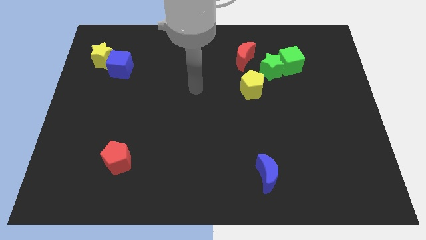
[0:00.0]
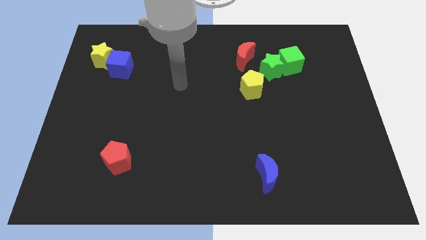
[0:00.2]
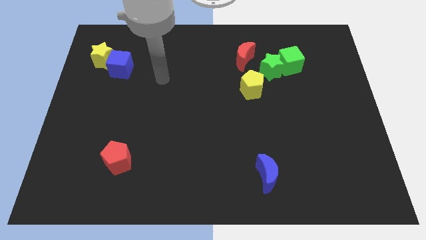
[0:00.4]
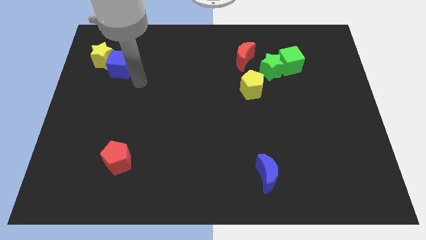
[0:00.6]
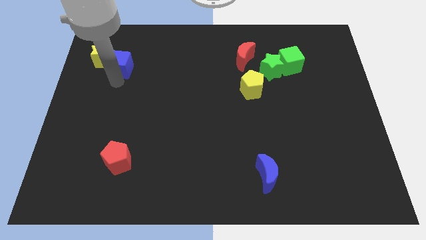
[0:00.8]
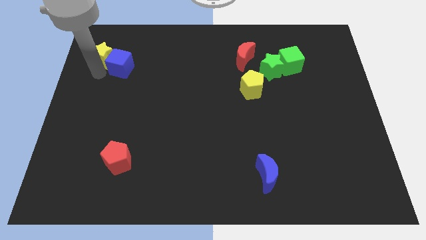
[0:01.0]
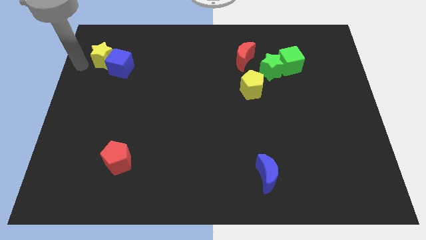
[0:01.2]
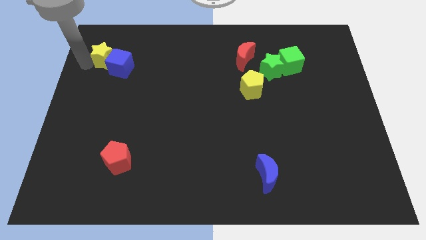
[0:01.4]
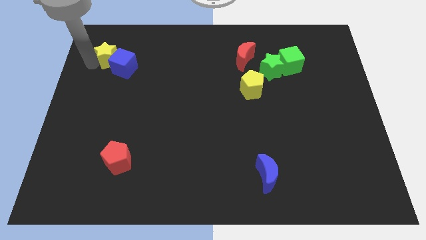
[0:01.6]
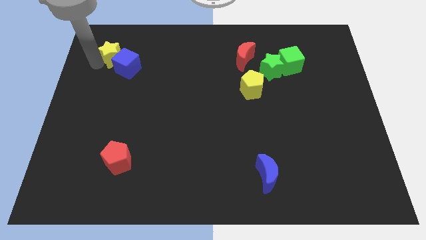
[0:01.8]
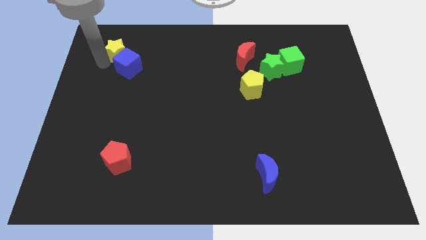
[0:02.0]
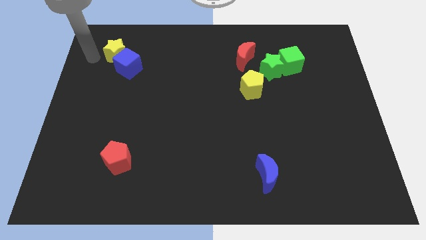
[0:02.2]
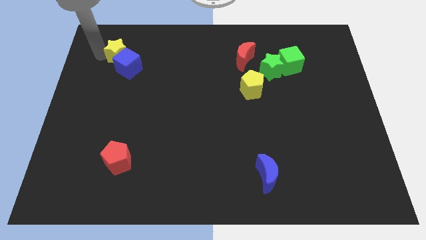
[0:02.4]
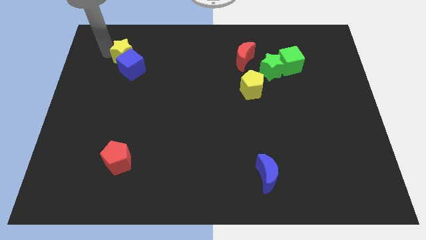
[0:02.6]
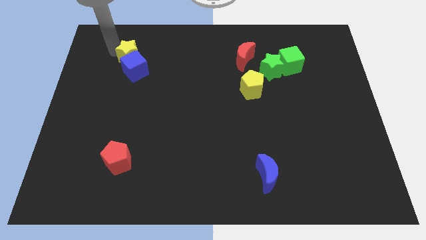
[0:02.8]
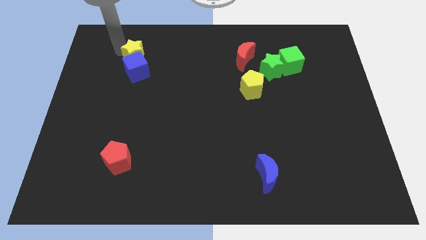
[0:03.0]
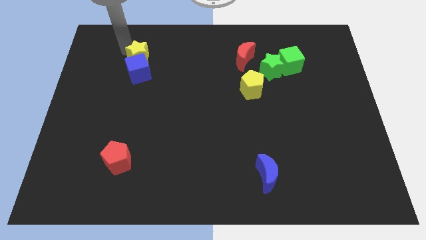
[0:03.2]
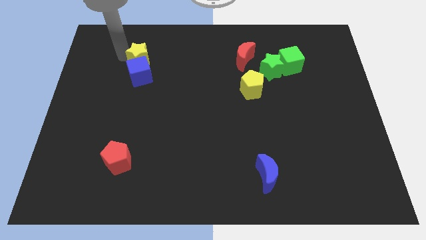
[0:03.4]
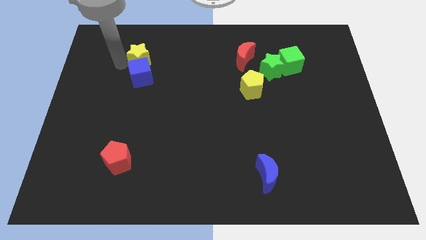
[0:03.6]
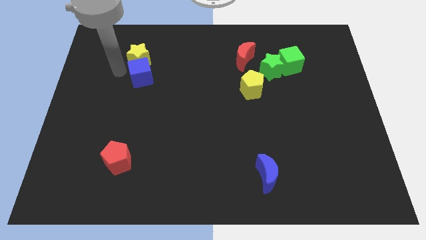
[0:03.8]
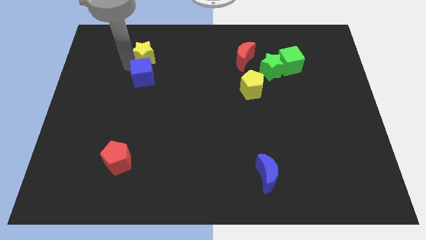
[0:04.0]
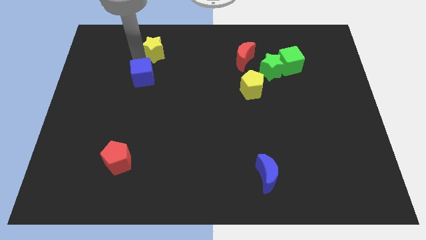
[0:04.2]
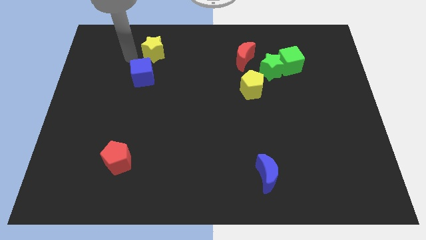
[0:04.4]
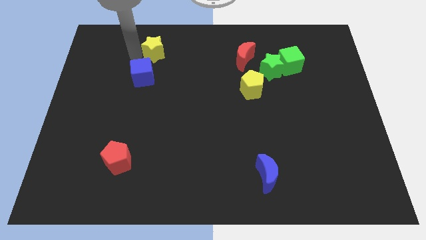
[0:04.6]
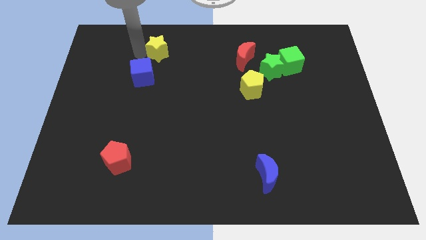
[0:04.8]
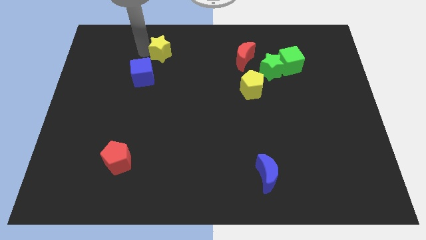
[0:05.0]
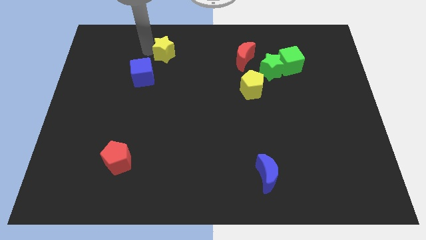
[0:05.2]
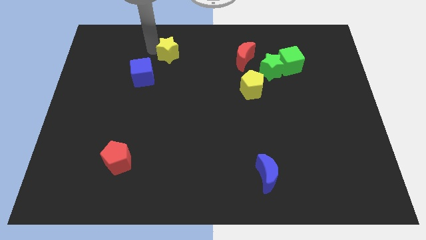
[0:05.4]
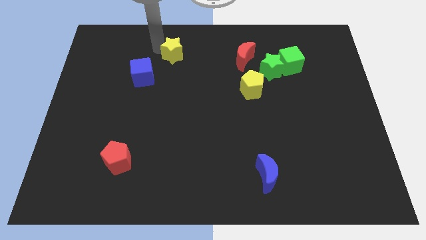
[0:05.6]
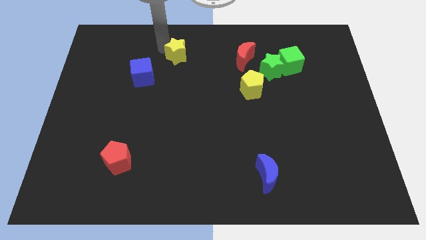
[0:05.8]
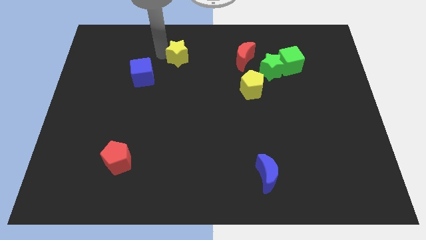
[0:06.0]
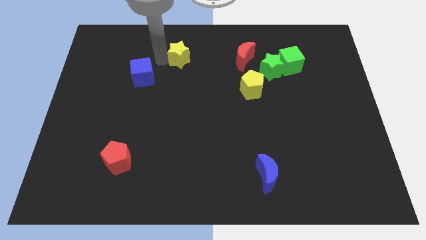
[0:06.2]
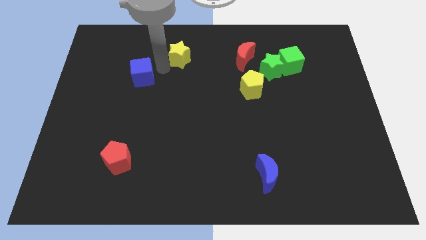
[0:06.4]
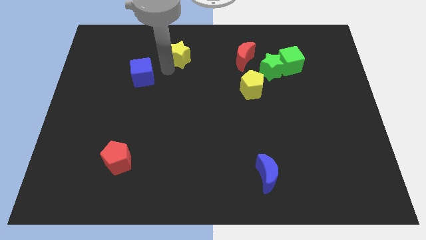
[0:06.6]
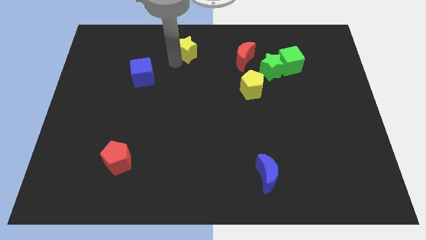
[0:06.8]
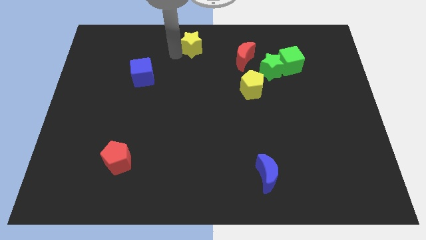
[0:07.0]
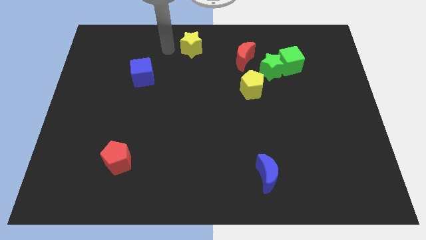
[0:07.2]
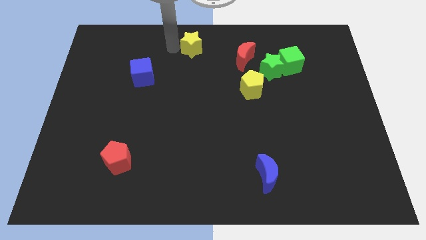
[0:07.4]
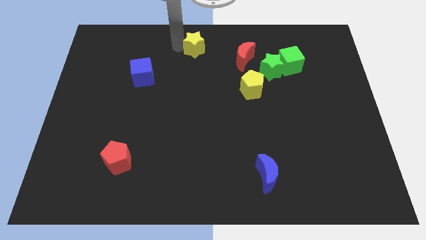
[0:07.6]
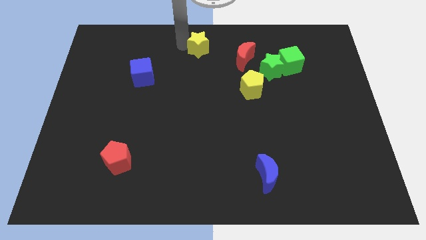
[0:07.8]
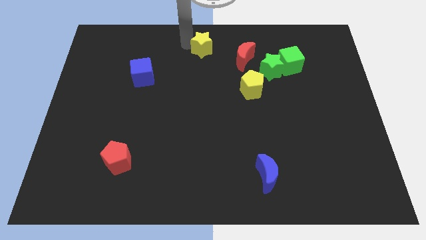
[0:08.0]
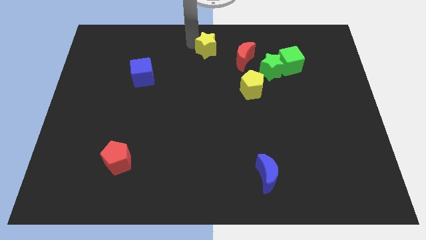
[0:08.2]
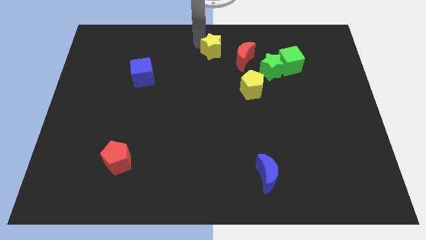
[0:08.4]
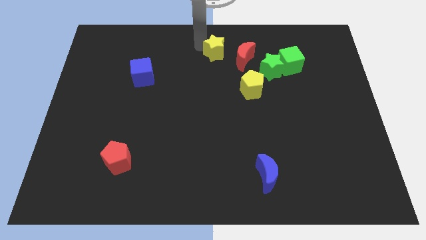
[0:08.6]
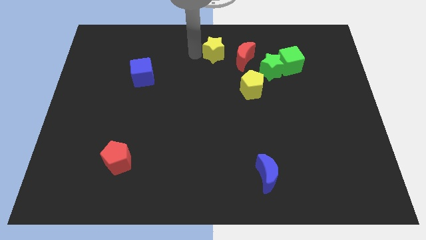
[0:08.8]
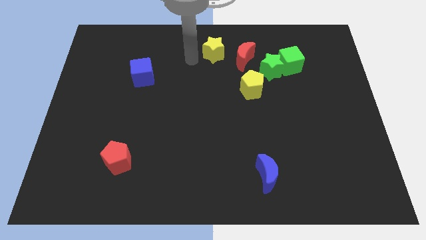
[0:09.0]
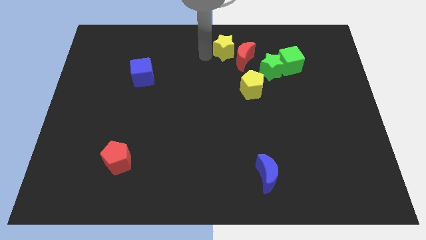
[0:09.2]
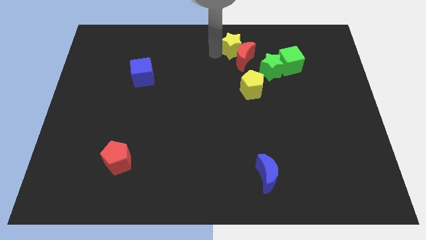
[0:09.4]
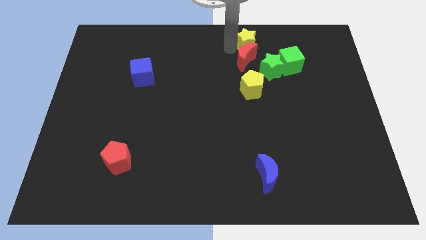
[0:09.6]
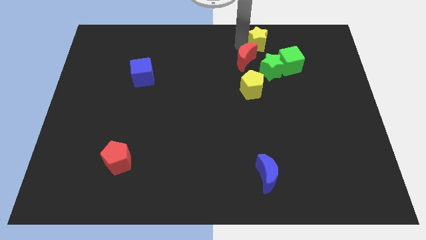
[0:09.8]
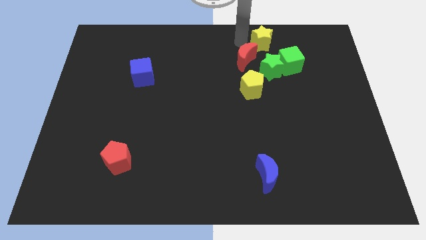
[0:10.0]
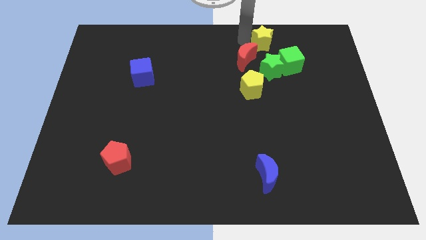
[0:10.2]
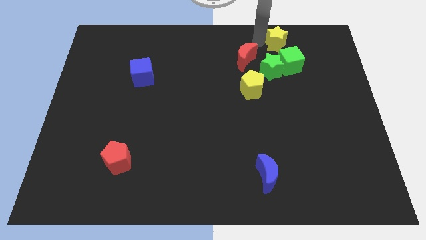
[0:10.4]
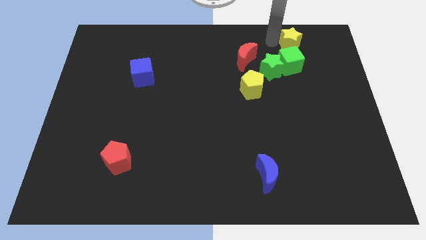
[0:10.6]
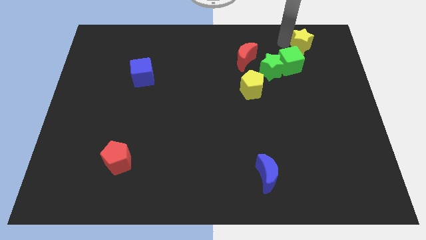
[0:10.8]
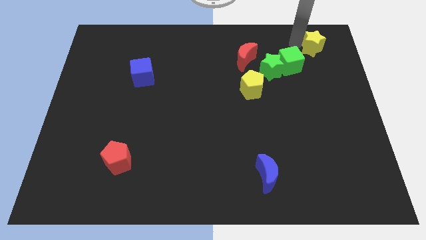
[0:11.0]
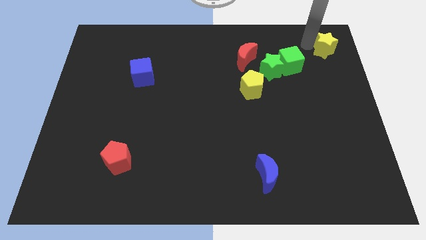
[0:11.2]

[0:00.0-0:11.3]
push the yellow star to the top right corner

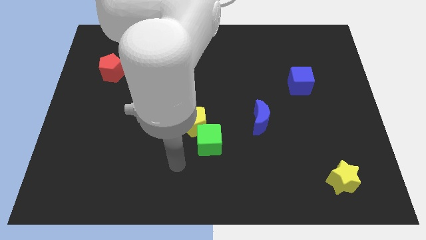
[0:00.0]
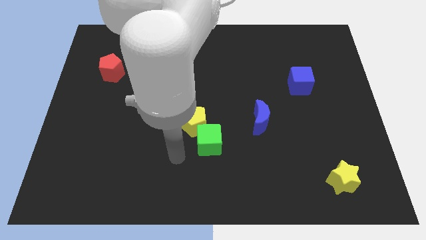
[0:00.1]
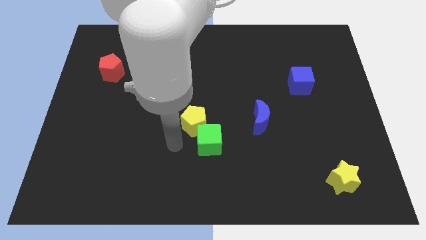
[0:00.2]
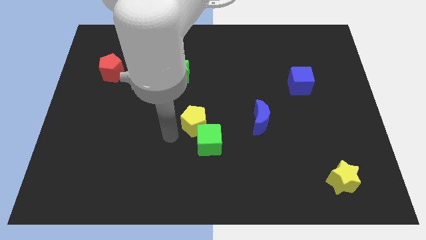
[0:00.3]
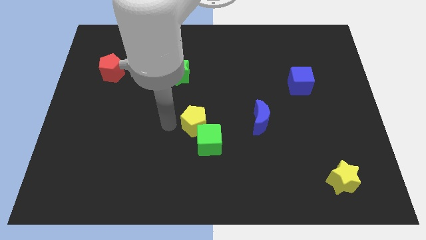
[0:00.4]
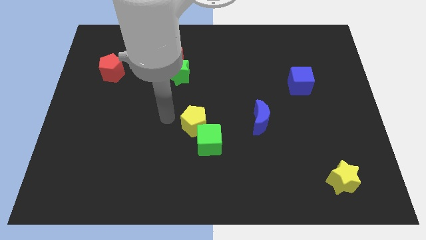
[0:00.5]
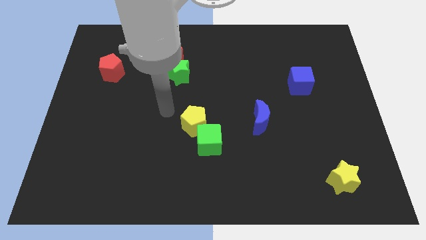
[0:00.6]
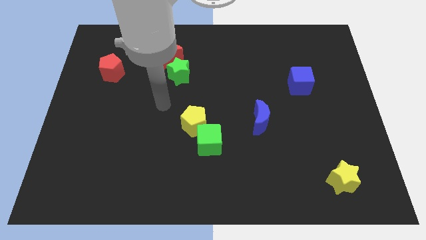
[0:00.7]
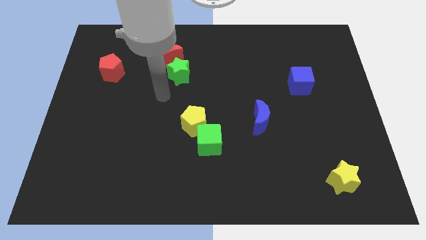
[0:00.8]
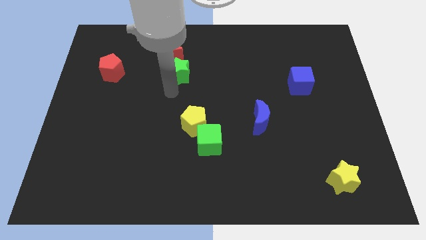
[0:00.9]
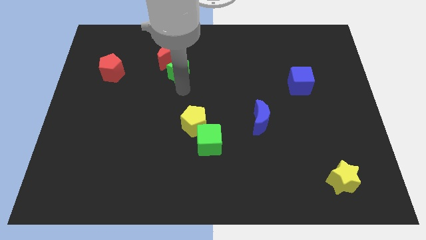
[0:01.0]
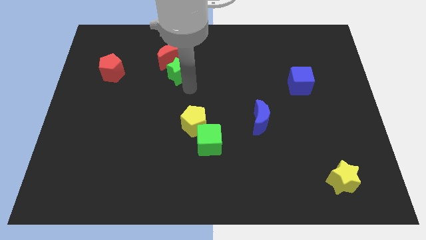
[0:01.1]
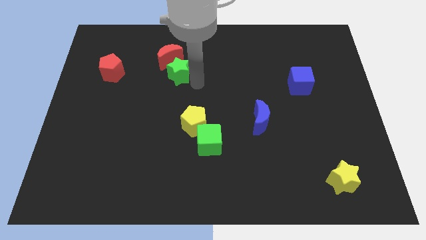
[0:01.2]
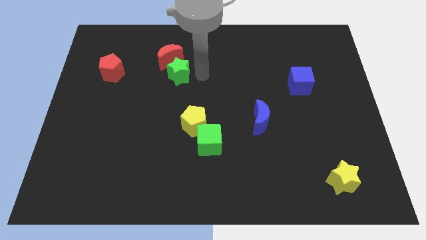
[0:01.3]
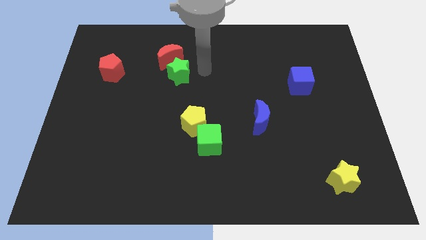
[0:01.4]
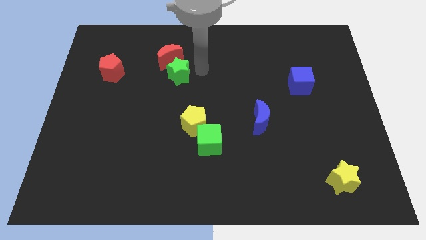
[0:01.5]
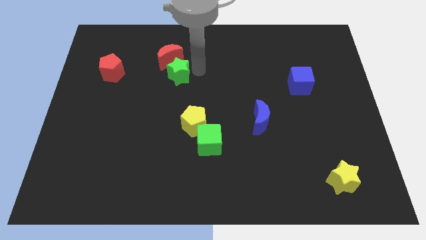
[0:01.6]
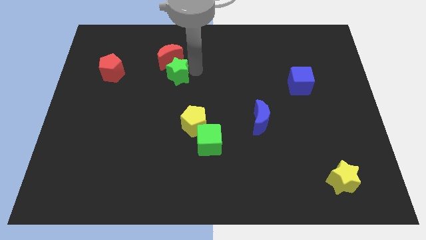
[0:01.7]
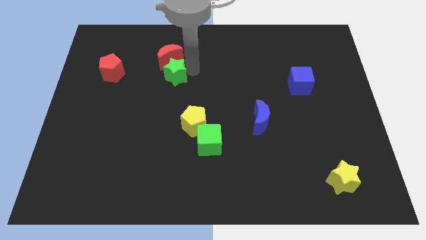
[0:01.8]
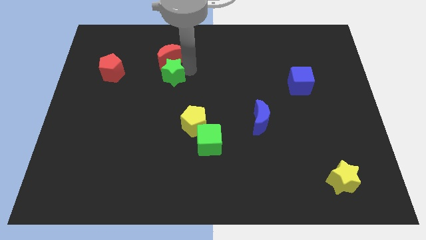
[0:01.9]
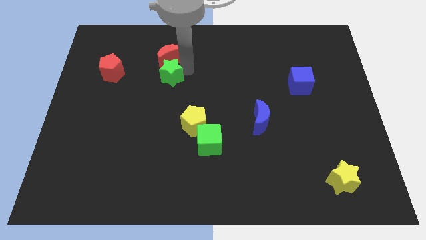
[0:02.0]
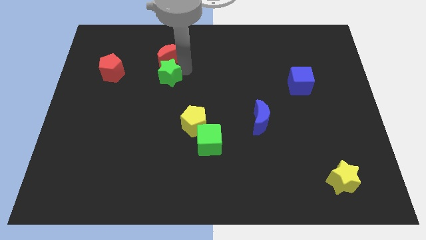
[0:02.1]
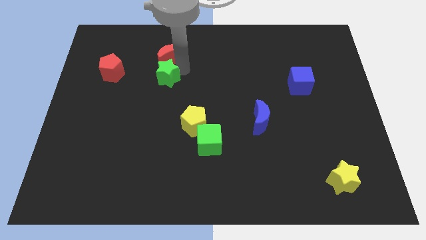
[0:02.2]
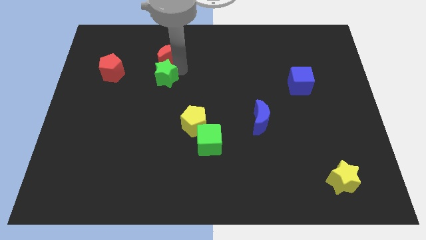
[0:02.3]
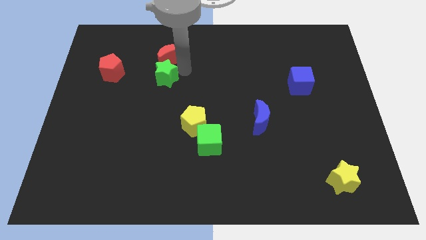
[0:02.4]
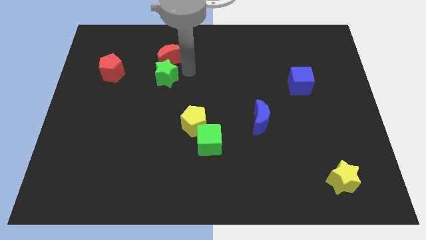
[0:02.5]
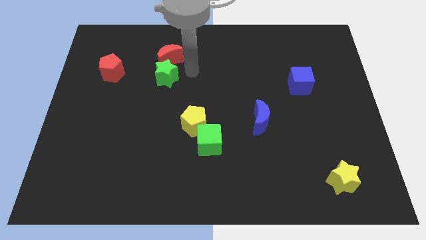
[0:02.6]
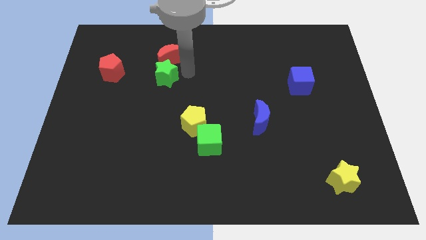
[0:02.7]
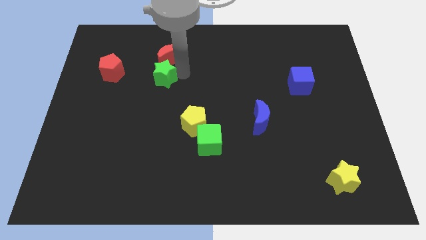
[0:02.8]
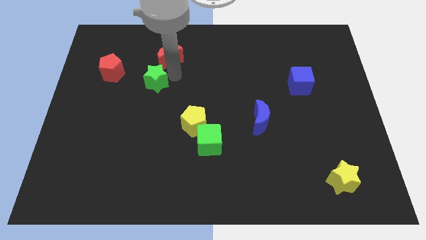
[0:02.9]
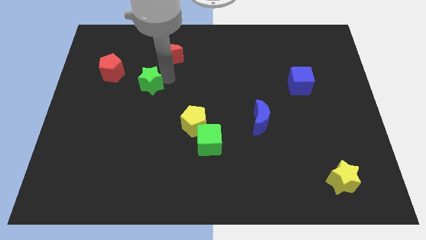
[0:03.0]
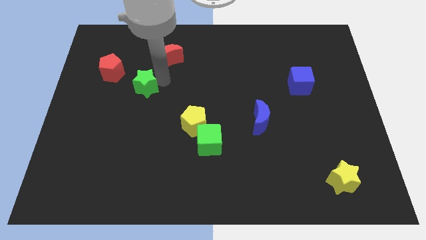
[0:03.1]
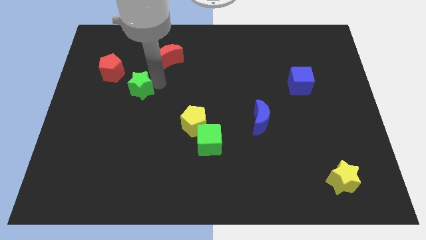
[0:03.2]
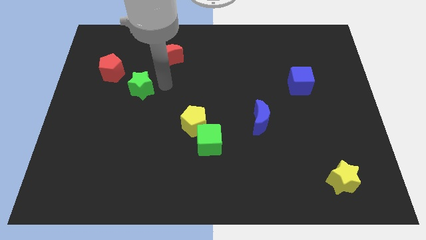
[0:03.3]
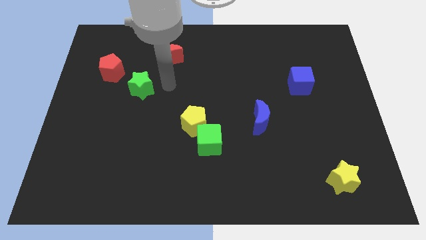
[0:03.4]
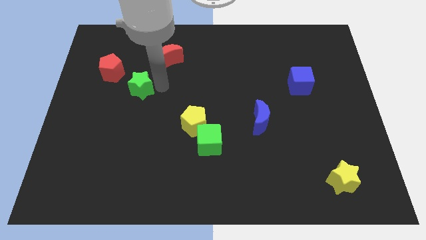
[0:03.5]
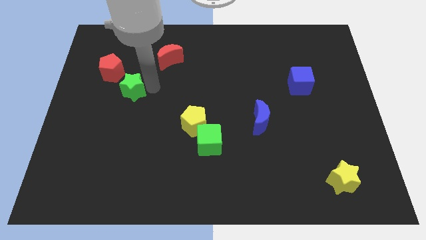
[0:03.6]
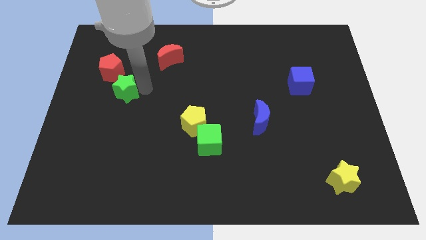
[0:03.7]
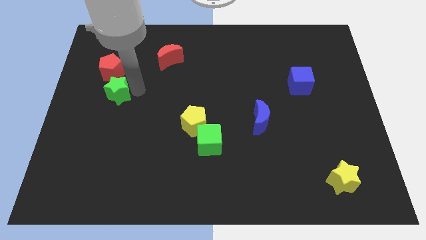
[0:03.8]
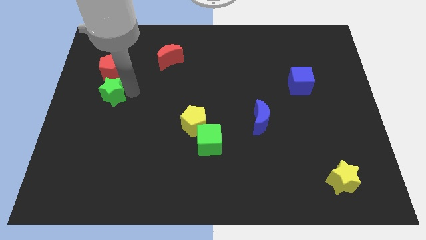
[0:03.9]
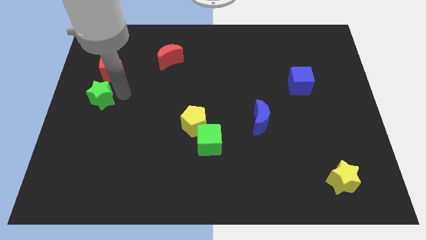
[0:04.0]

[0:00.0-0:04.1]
put the green star to the left side of the board
